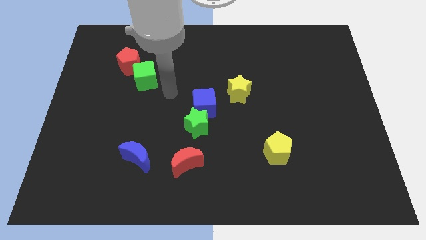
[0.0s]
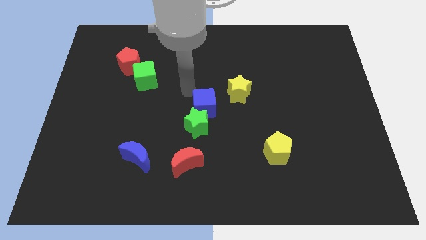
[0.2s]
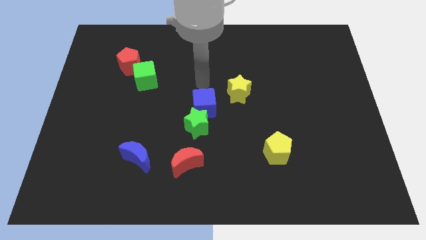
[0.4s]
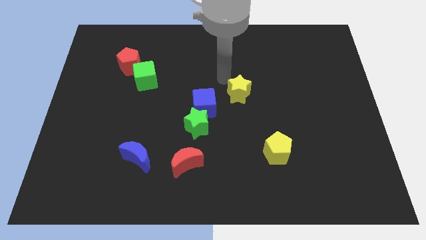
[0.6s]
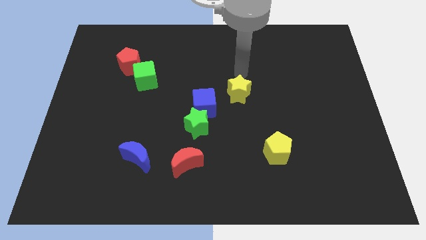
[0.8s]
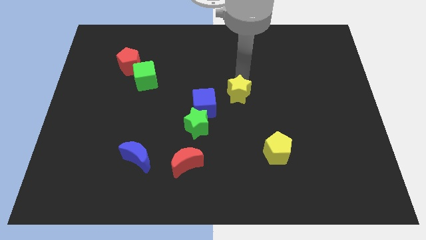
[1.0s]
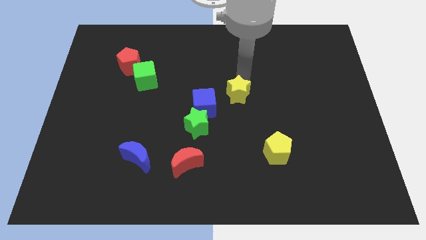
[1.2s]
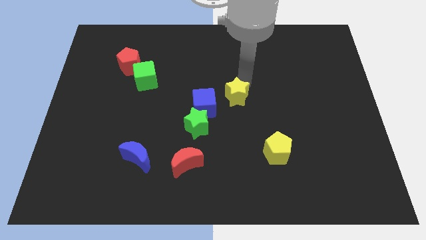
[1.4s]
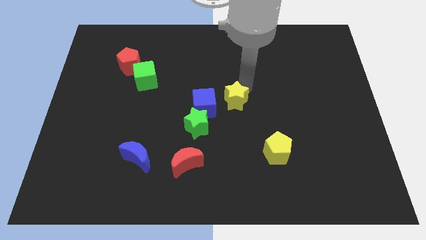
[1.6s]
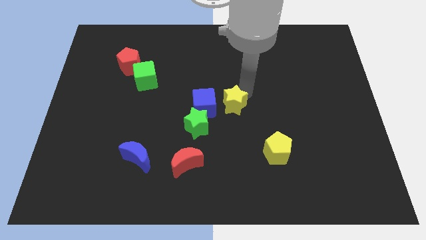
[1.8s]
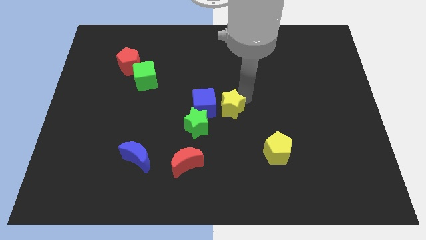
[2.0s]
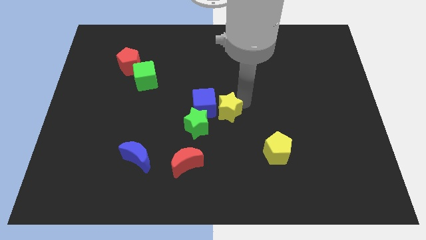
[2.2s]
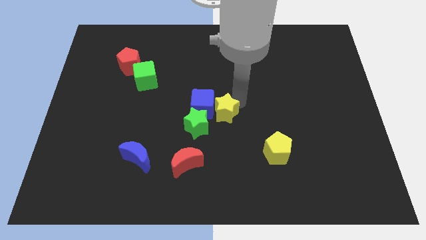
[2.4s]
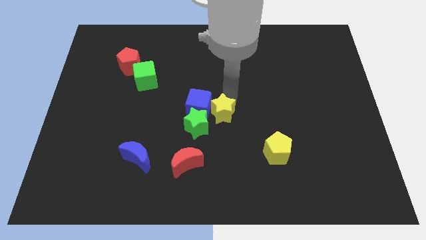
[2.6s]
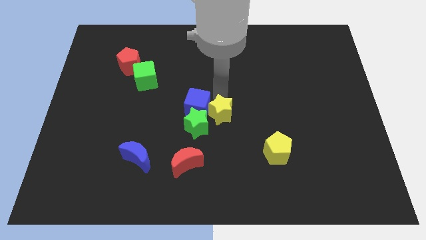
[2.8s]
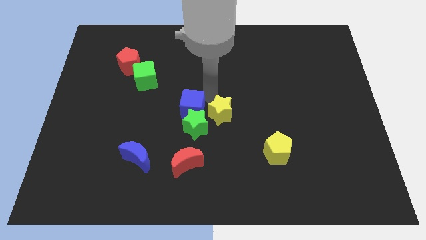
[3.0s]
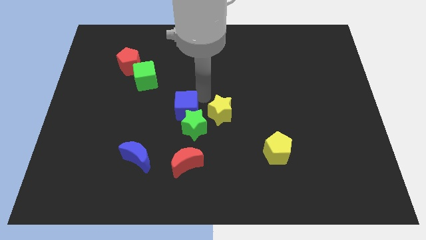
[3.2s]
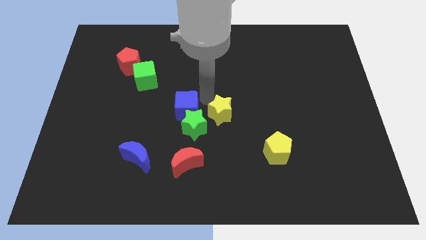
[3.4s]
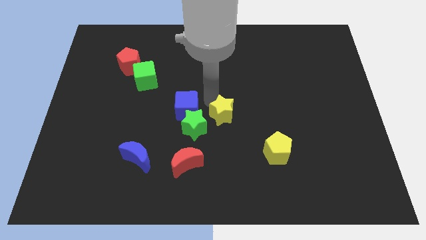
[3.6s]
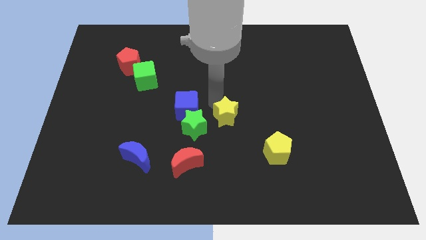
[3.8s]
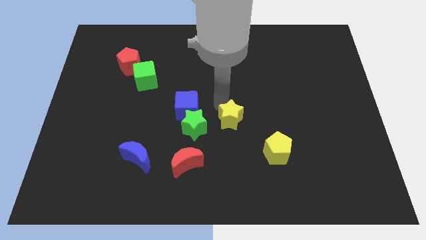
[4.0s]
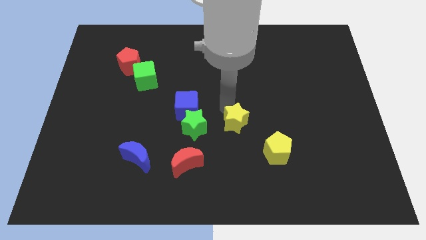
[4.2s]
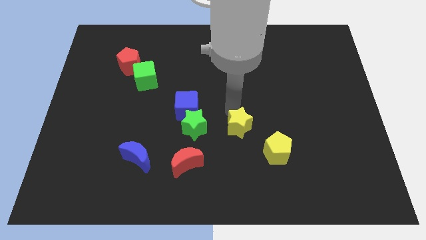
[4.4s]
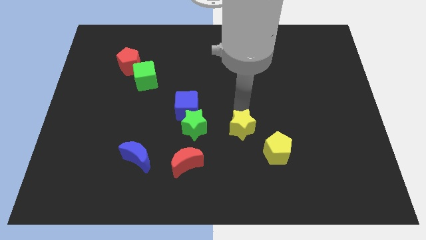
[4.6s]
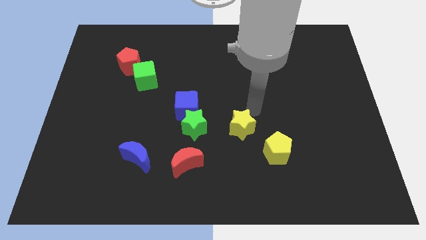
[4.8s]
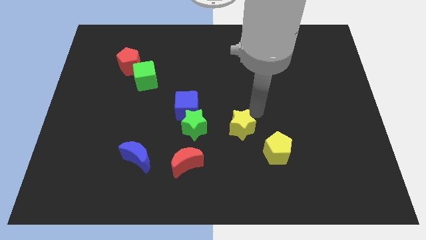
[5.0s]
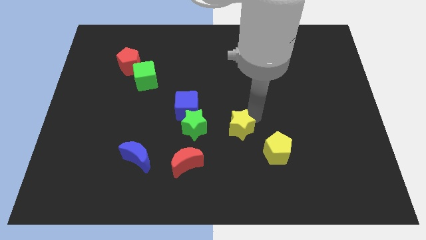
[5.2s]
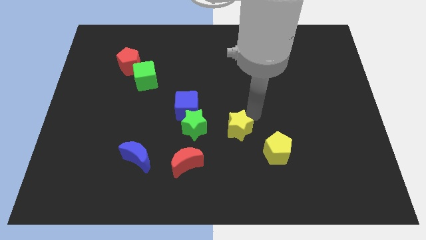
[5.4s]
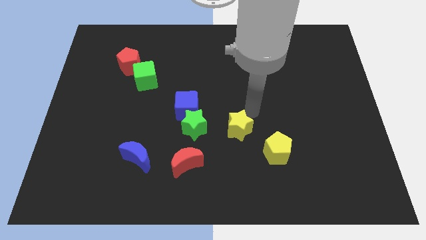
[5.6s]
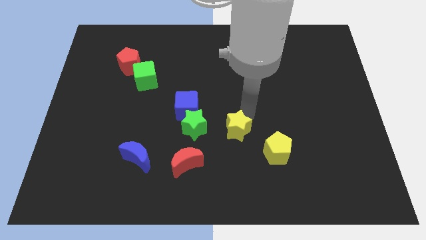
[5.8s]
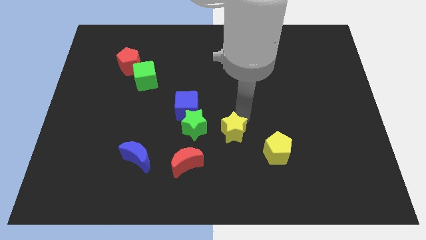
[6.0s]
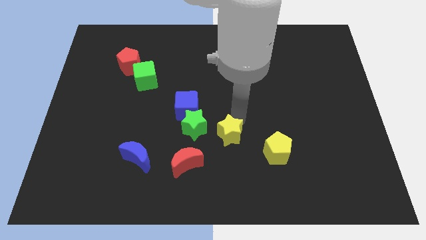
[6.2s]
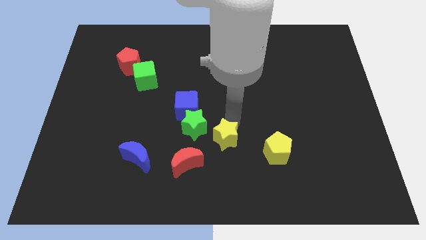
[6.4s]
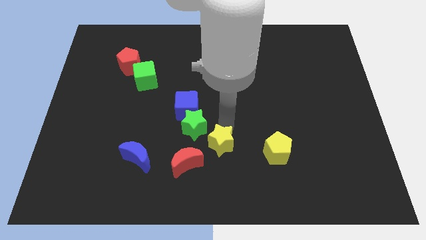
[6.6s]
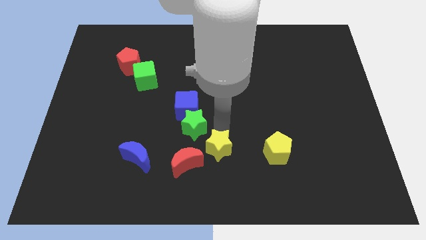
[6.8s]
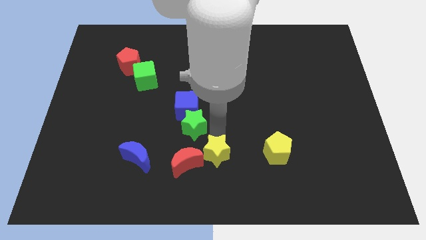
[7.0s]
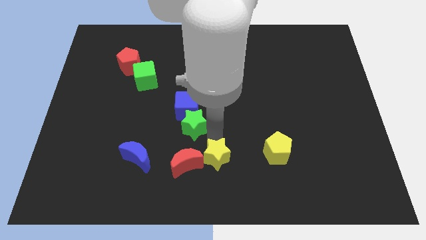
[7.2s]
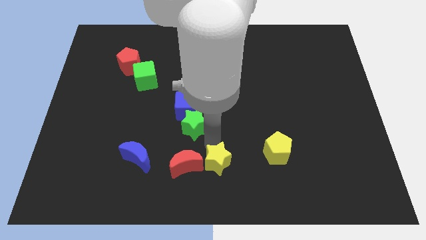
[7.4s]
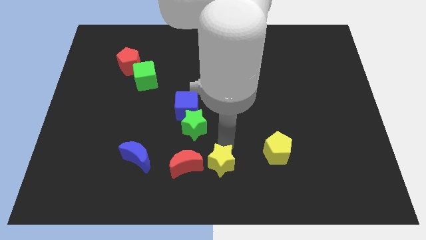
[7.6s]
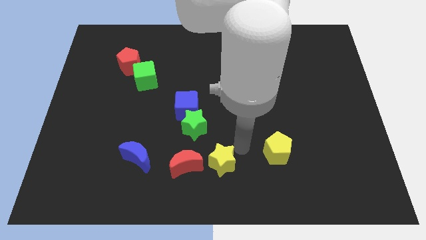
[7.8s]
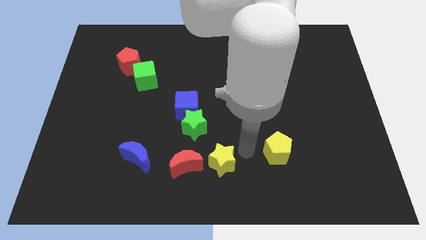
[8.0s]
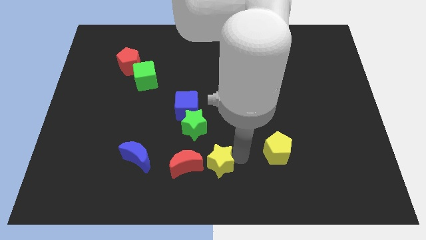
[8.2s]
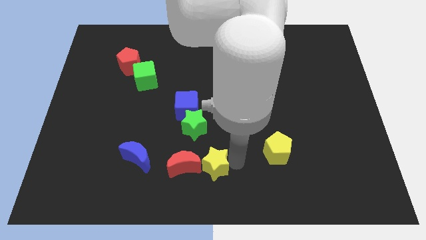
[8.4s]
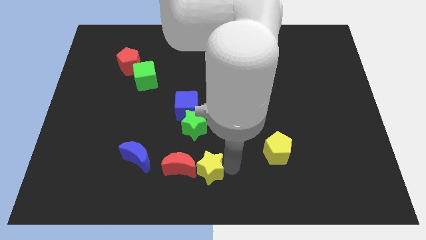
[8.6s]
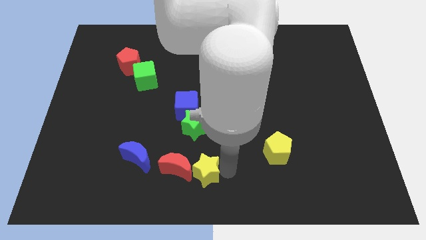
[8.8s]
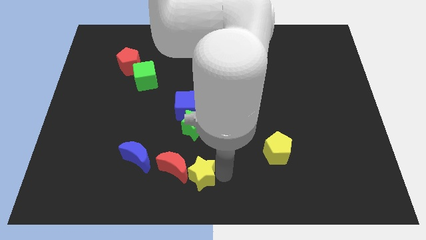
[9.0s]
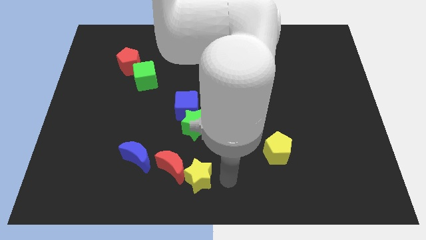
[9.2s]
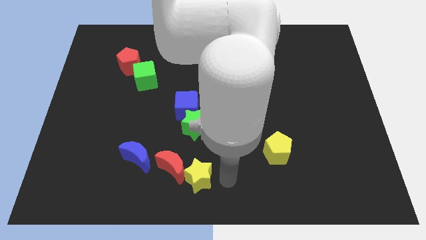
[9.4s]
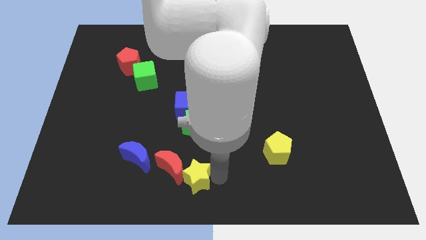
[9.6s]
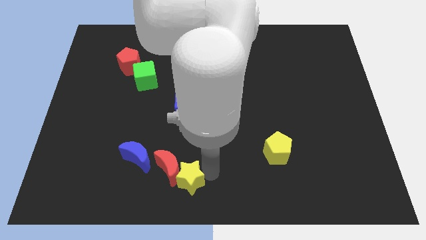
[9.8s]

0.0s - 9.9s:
move the yellow star diagonally down and left

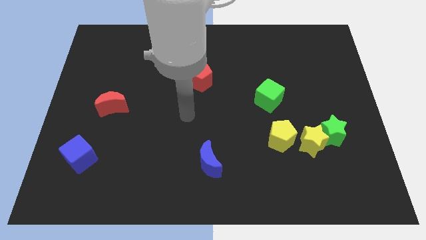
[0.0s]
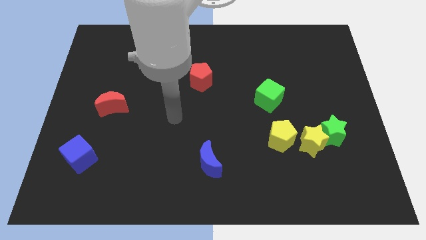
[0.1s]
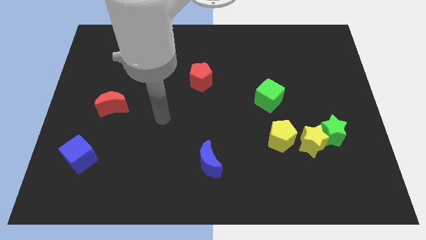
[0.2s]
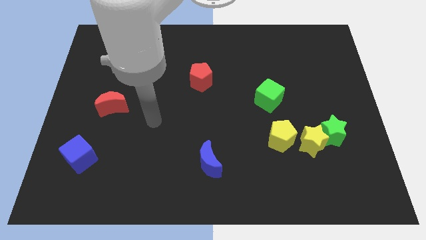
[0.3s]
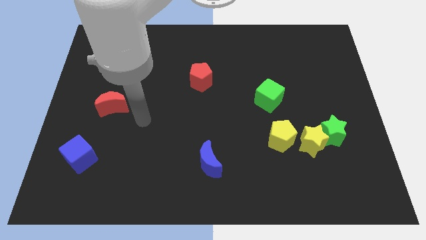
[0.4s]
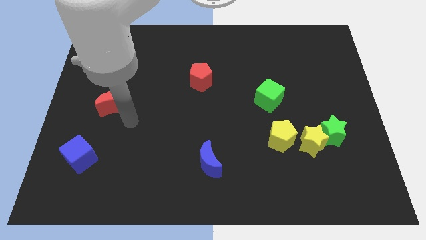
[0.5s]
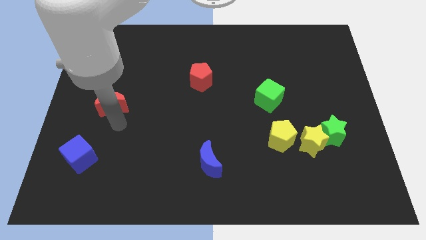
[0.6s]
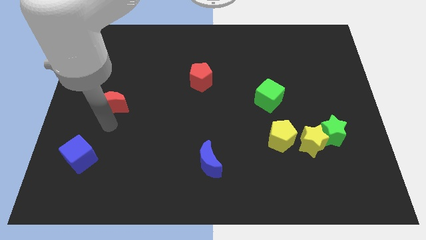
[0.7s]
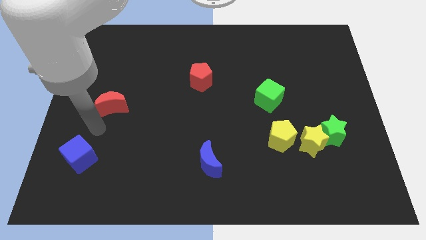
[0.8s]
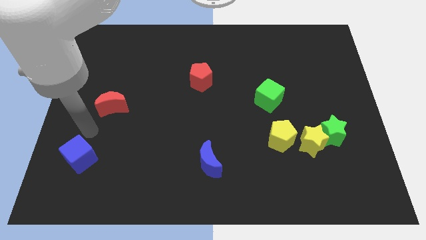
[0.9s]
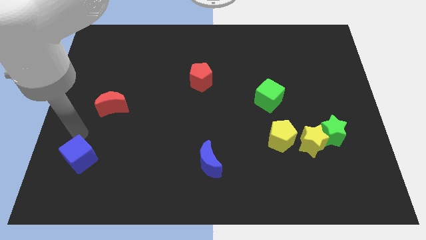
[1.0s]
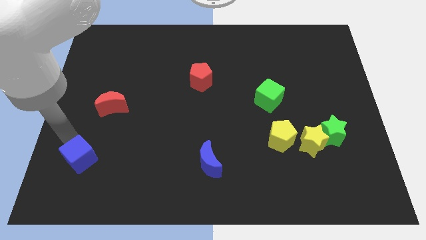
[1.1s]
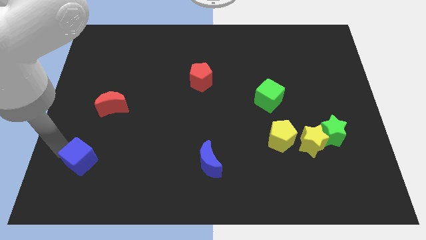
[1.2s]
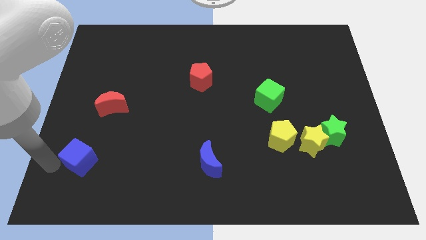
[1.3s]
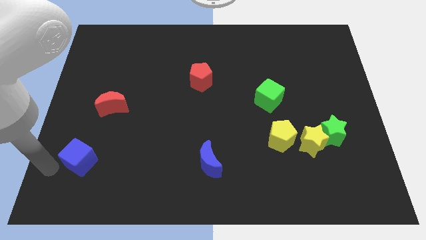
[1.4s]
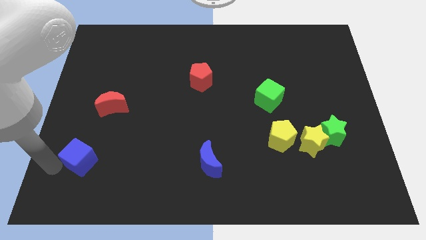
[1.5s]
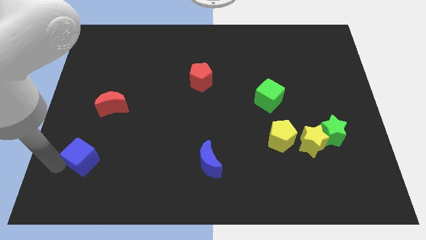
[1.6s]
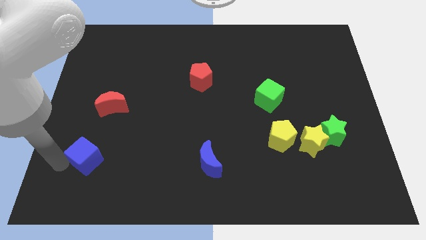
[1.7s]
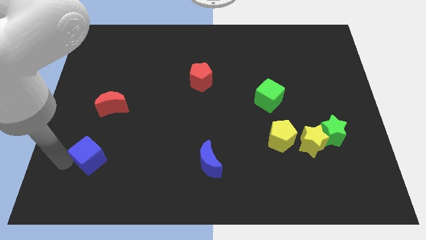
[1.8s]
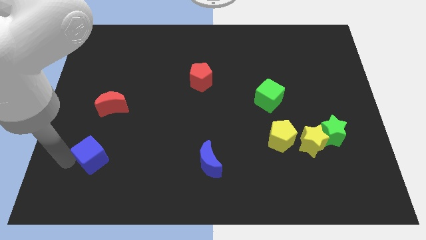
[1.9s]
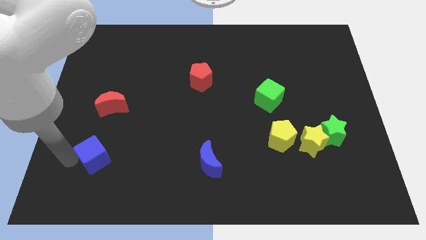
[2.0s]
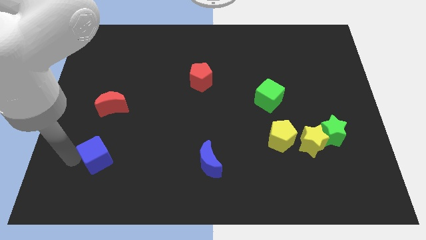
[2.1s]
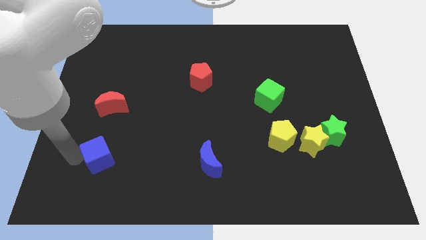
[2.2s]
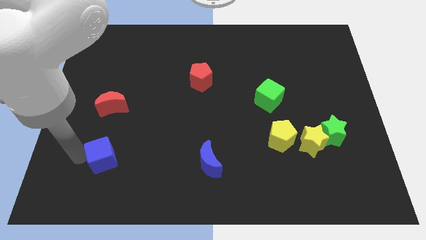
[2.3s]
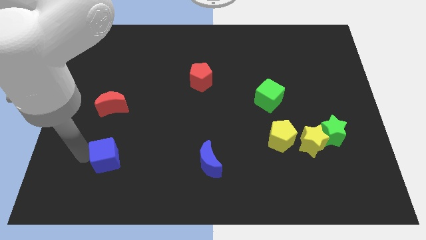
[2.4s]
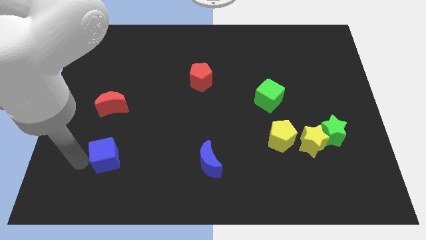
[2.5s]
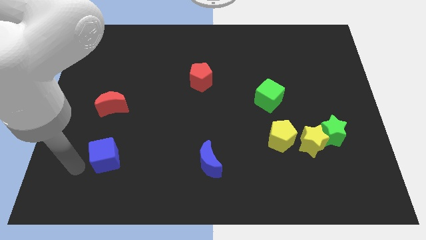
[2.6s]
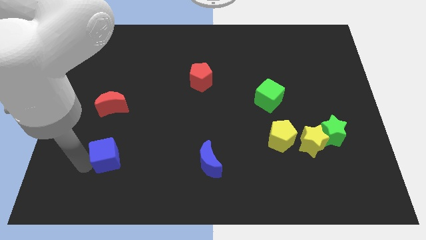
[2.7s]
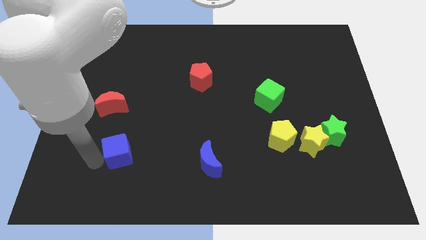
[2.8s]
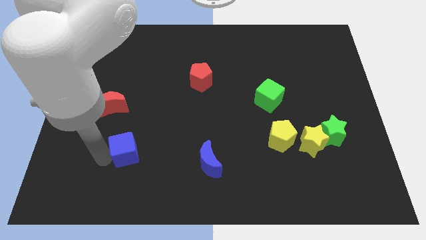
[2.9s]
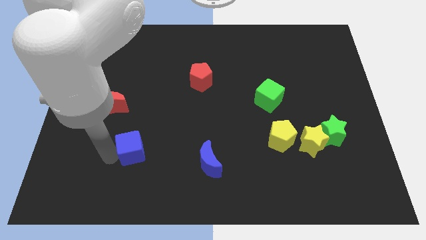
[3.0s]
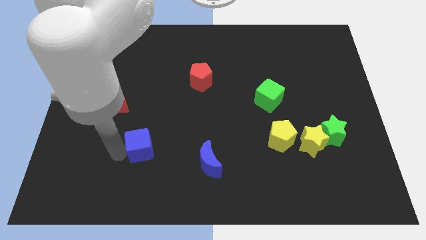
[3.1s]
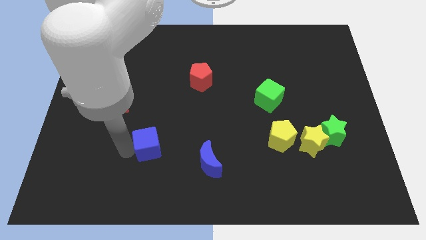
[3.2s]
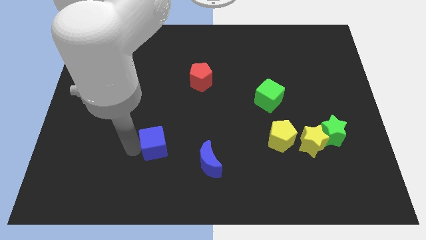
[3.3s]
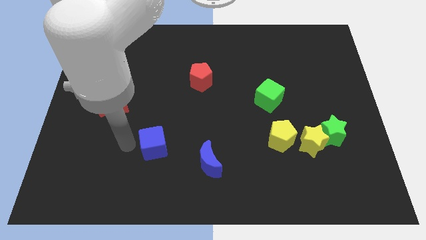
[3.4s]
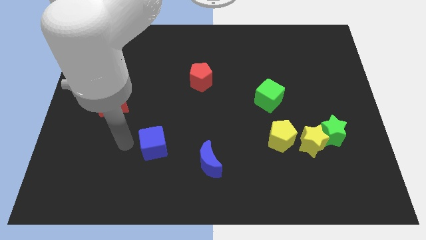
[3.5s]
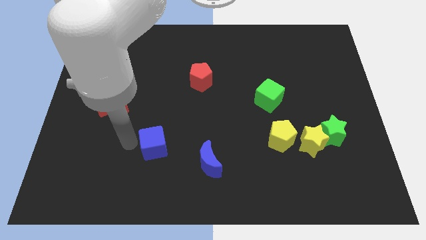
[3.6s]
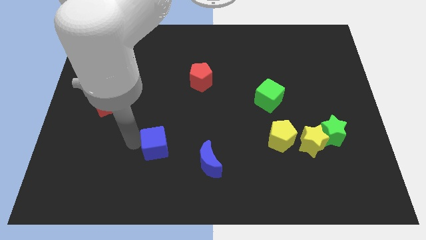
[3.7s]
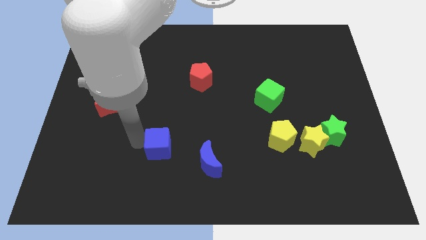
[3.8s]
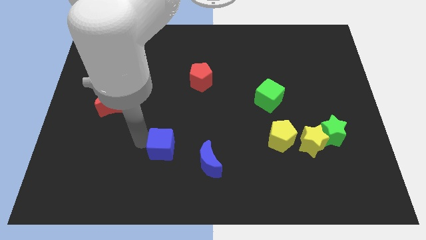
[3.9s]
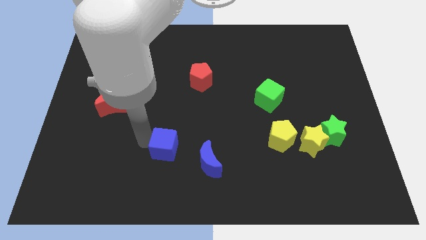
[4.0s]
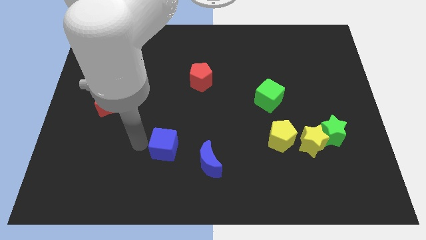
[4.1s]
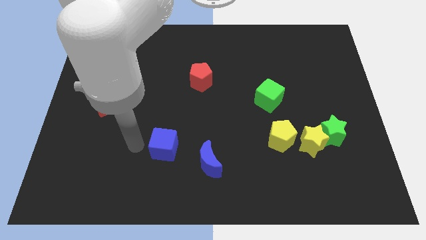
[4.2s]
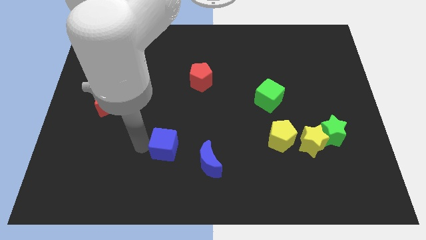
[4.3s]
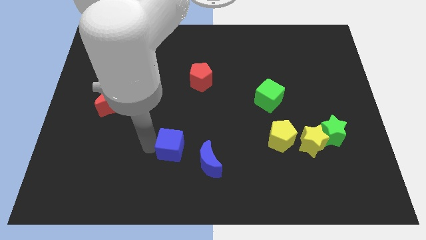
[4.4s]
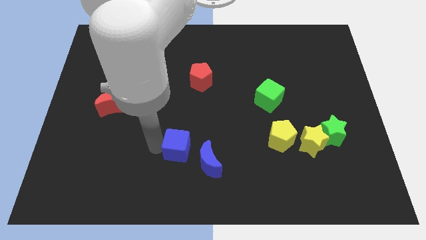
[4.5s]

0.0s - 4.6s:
slide the blue cube right
